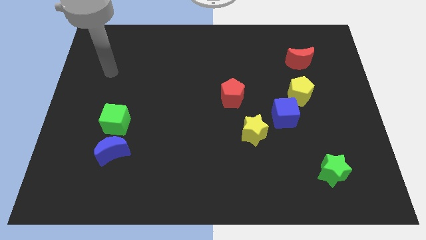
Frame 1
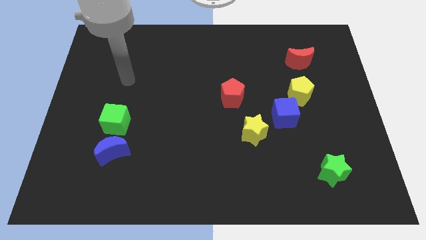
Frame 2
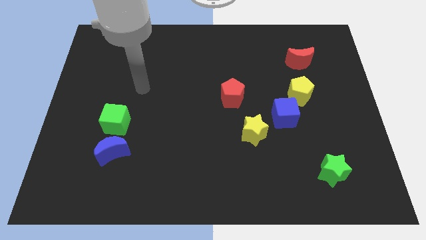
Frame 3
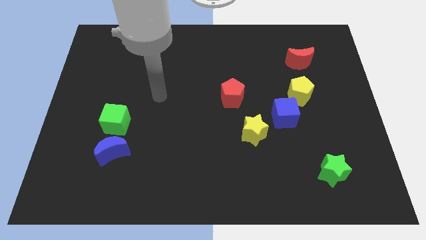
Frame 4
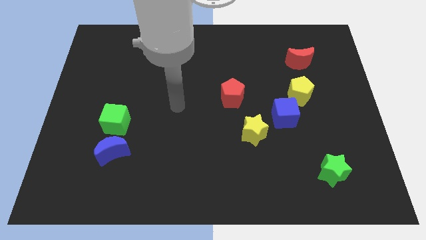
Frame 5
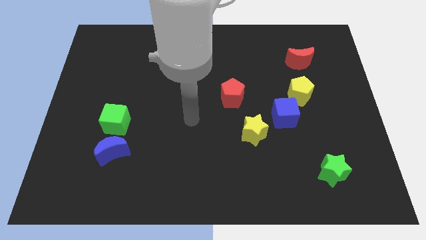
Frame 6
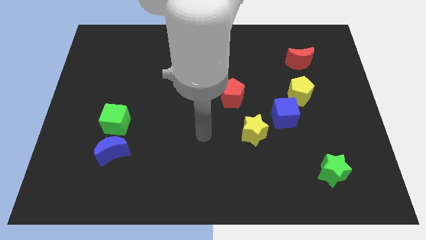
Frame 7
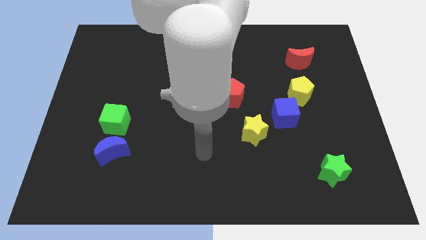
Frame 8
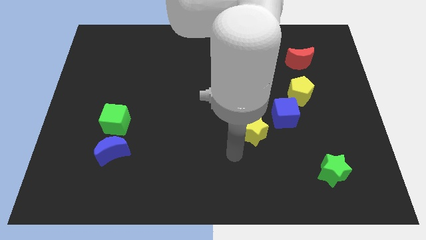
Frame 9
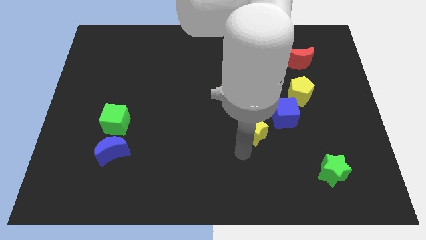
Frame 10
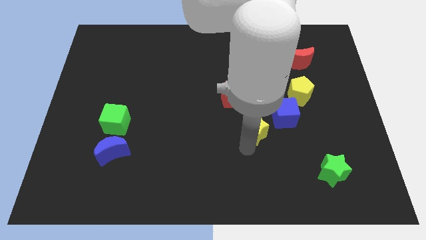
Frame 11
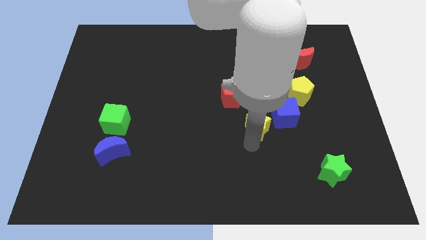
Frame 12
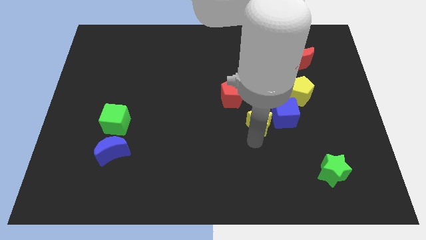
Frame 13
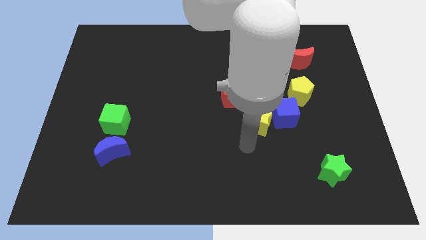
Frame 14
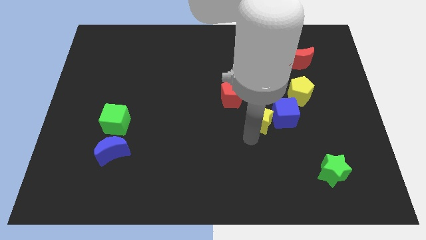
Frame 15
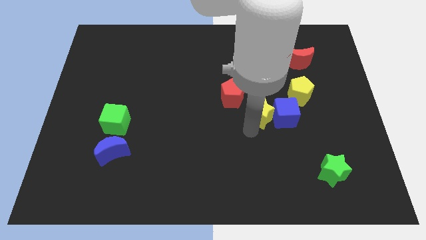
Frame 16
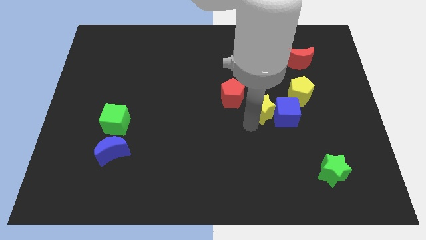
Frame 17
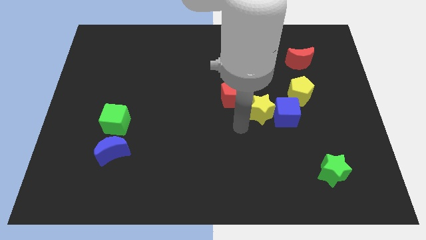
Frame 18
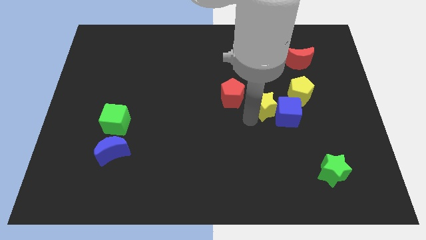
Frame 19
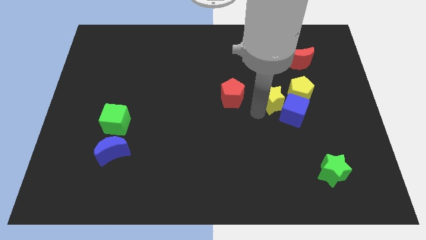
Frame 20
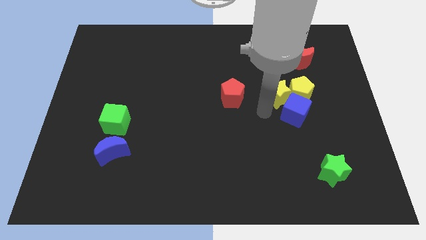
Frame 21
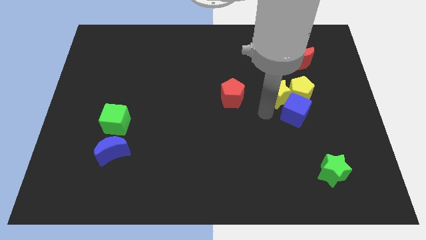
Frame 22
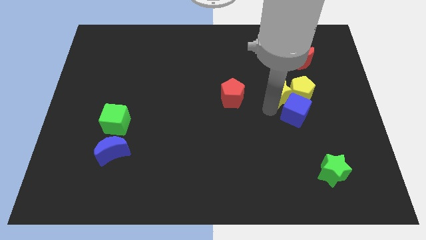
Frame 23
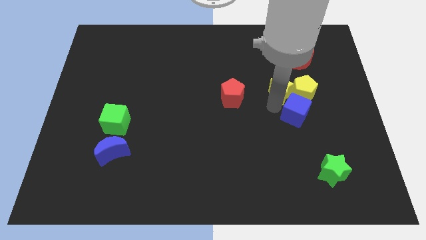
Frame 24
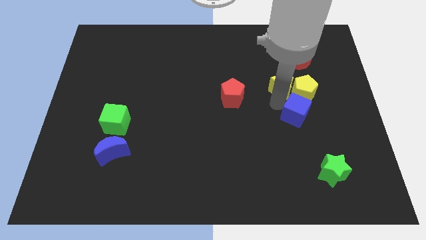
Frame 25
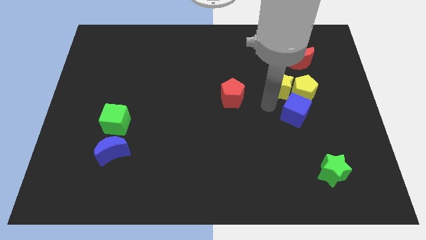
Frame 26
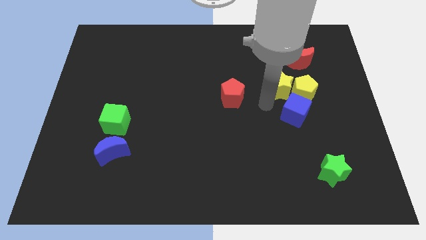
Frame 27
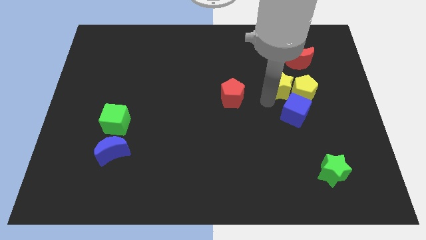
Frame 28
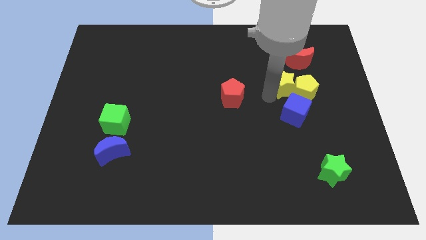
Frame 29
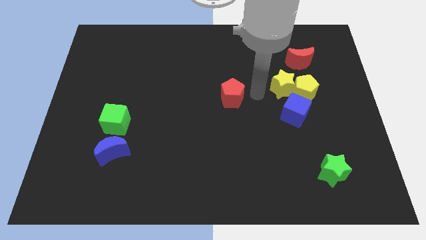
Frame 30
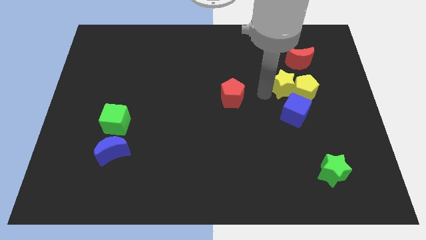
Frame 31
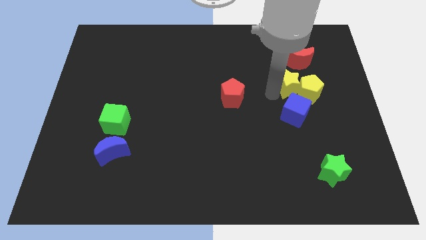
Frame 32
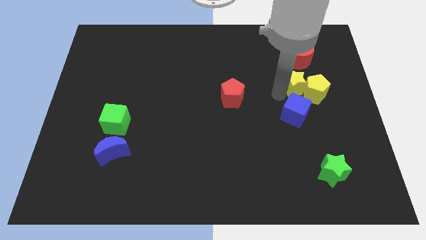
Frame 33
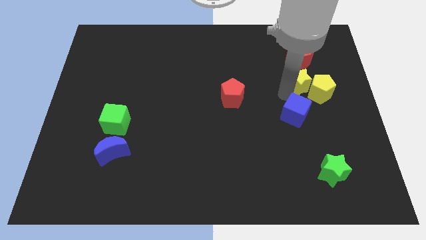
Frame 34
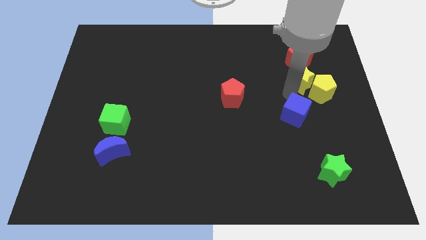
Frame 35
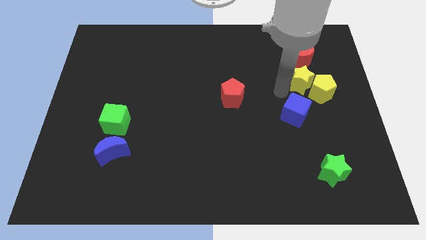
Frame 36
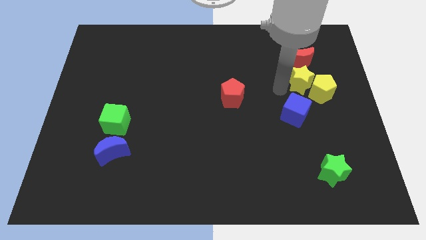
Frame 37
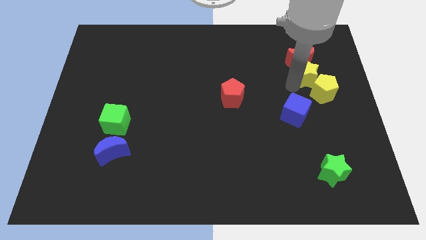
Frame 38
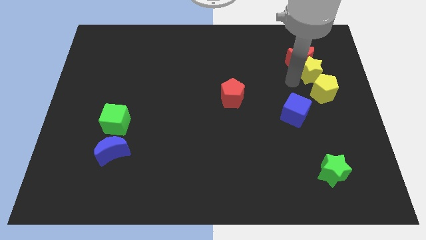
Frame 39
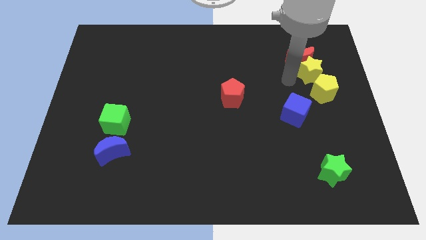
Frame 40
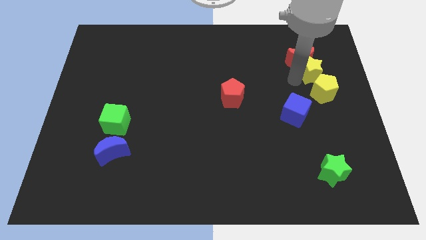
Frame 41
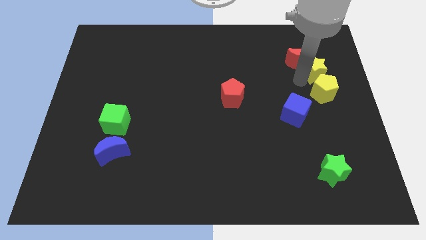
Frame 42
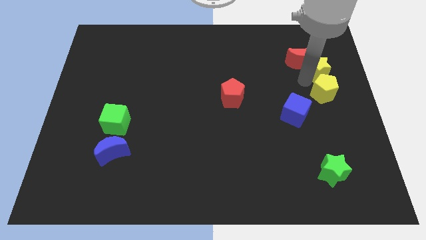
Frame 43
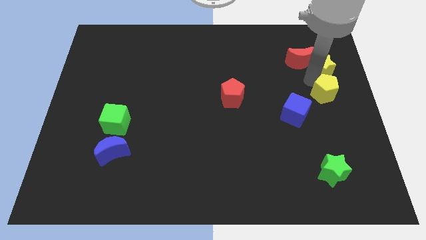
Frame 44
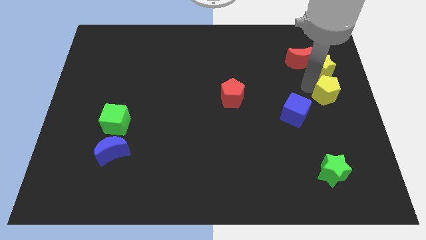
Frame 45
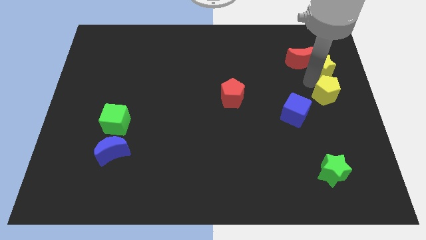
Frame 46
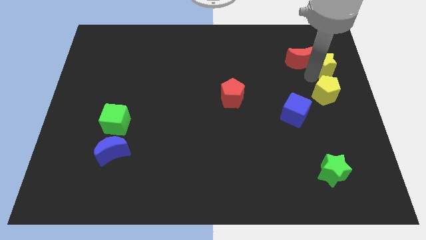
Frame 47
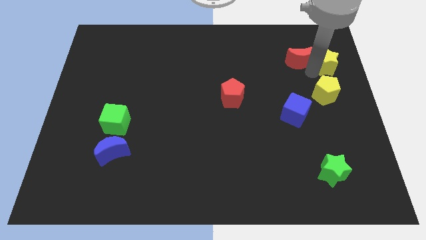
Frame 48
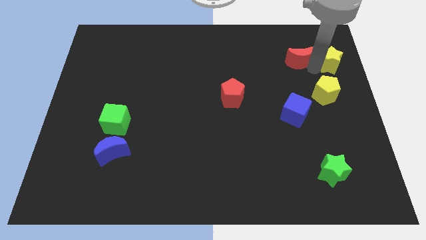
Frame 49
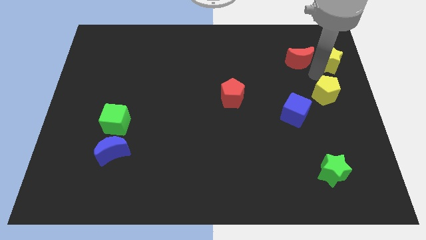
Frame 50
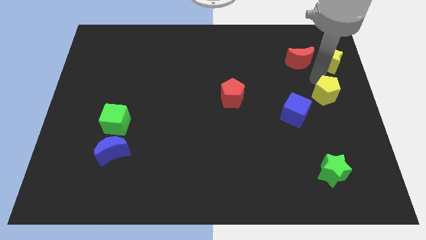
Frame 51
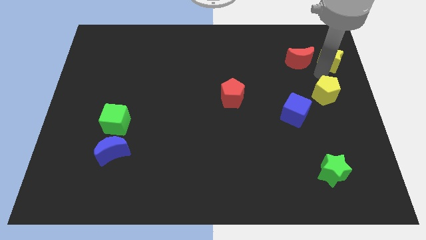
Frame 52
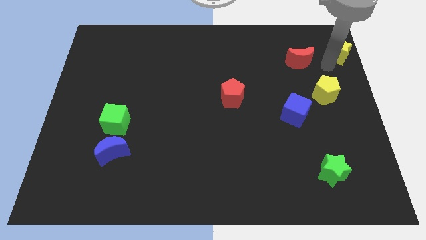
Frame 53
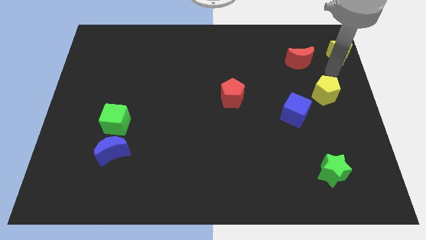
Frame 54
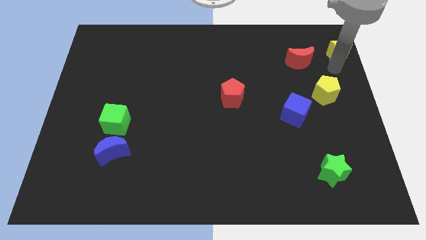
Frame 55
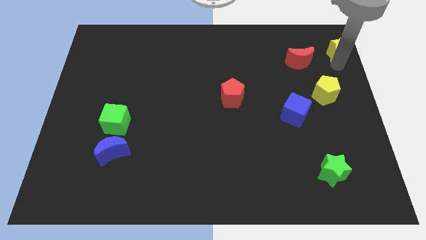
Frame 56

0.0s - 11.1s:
push the yellow star to the upper right corner
